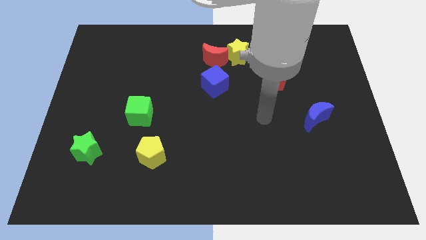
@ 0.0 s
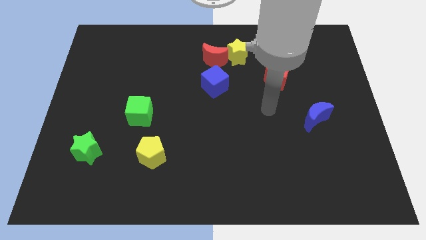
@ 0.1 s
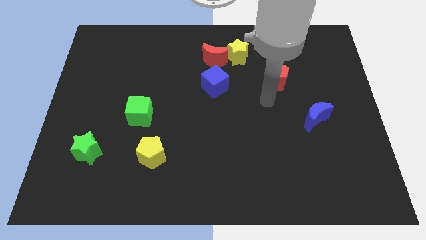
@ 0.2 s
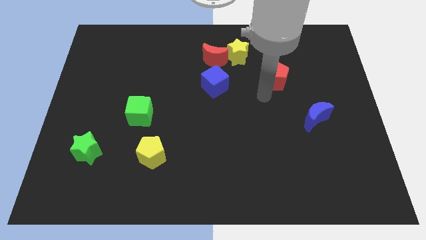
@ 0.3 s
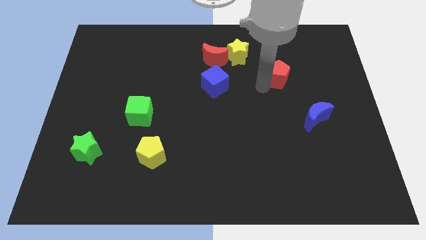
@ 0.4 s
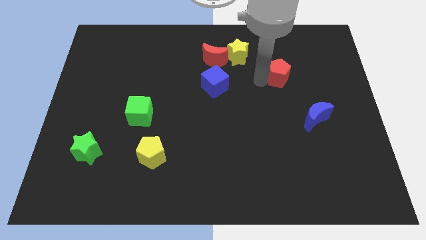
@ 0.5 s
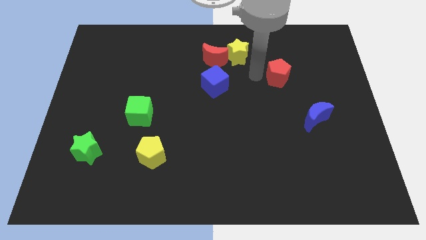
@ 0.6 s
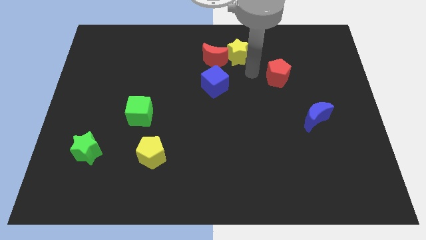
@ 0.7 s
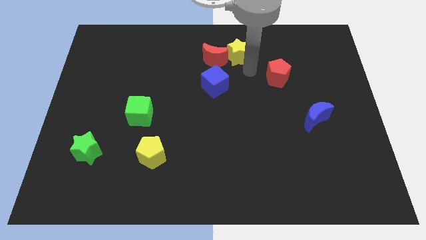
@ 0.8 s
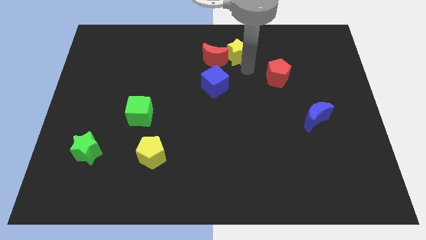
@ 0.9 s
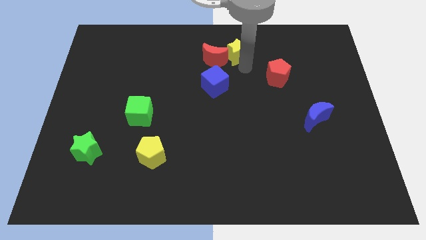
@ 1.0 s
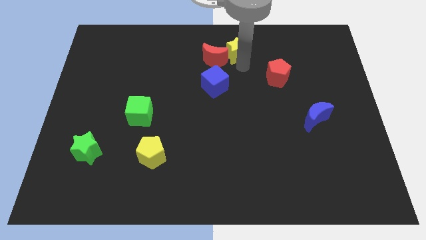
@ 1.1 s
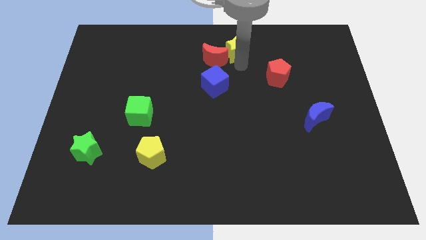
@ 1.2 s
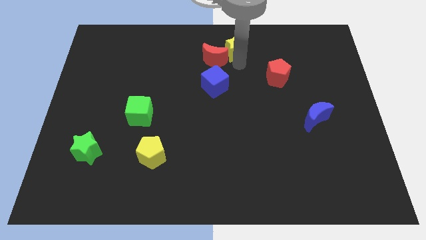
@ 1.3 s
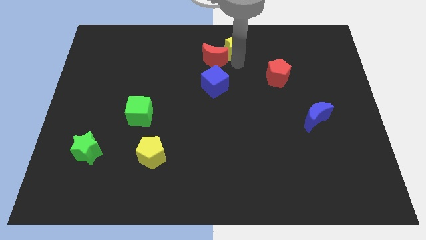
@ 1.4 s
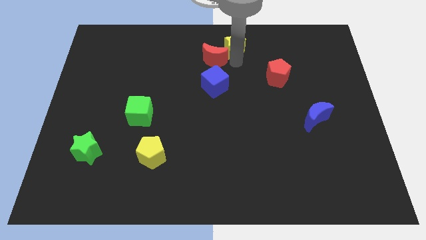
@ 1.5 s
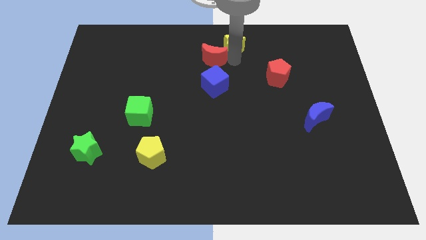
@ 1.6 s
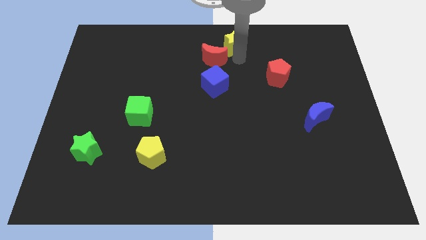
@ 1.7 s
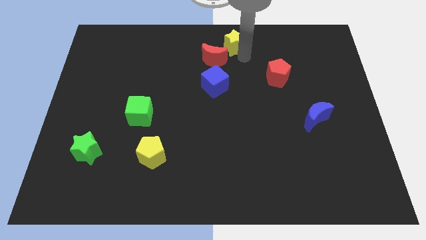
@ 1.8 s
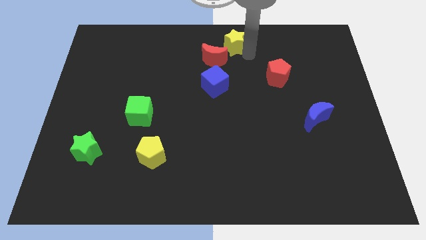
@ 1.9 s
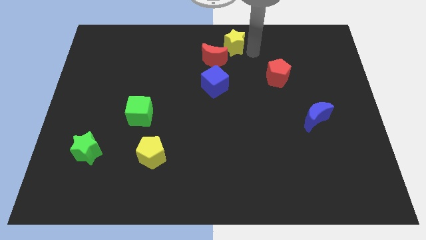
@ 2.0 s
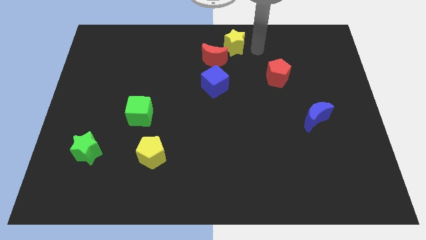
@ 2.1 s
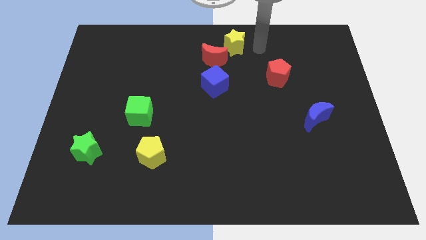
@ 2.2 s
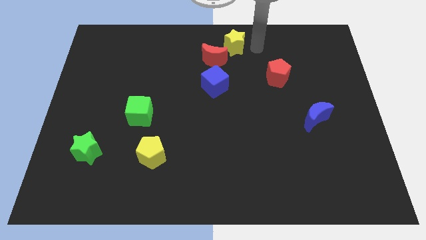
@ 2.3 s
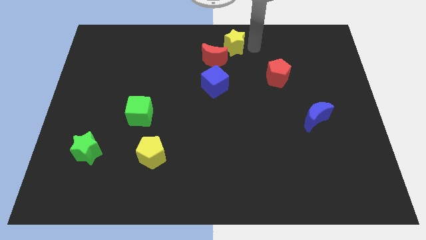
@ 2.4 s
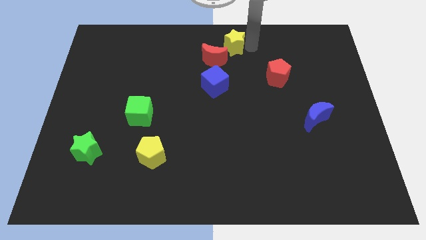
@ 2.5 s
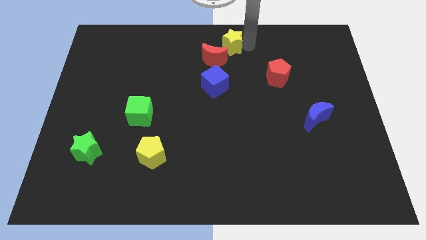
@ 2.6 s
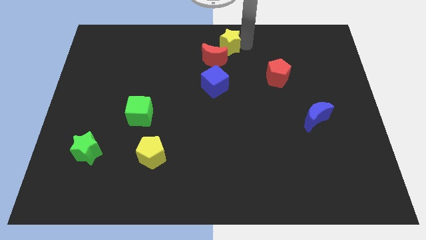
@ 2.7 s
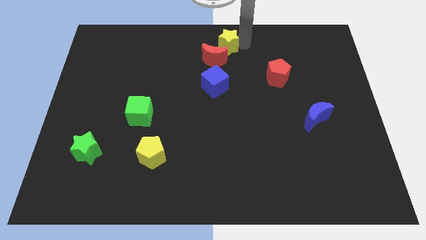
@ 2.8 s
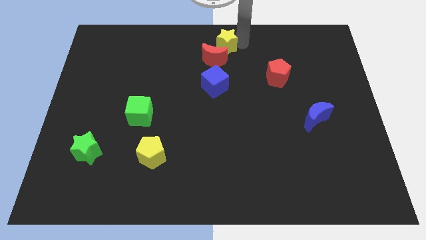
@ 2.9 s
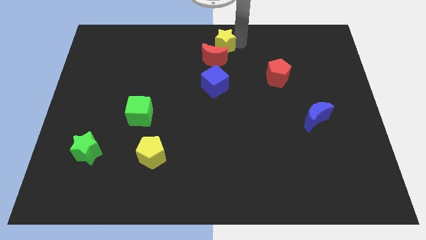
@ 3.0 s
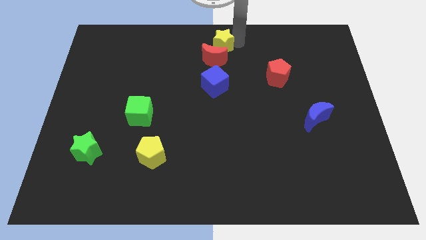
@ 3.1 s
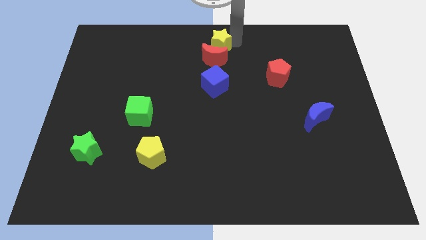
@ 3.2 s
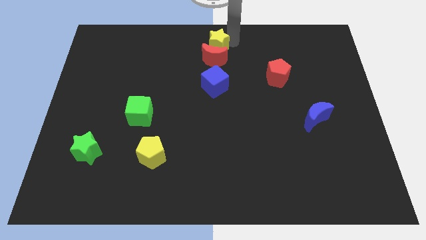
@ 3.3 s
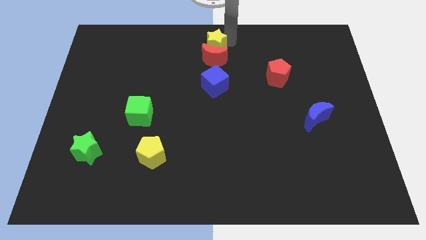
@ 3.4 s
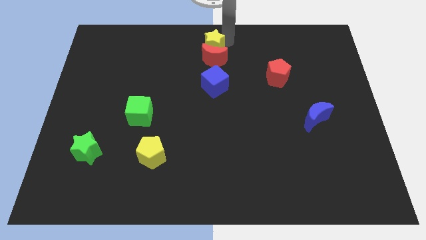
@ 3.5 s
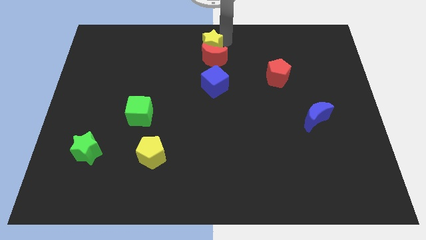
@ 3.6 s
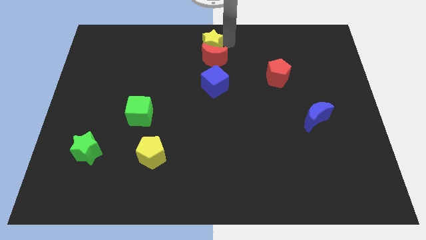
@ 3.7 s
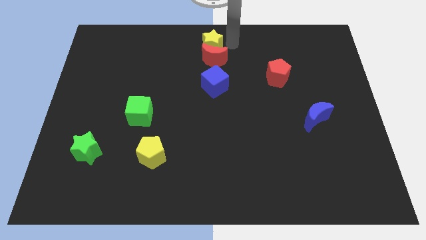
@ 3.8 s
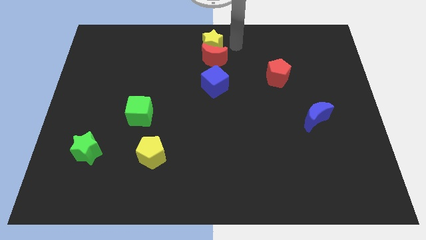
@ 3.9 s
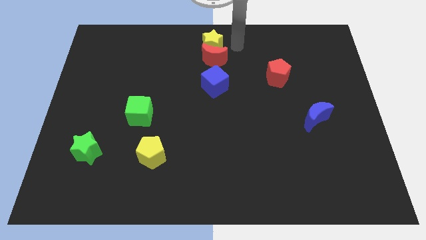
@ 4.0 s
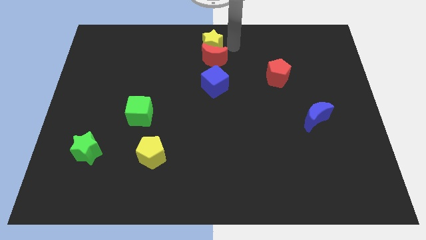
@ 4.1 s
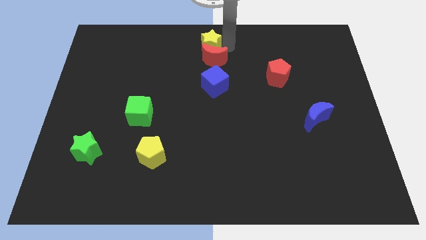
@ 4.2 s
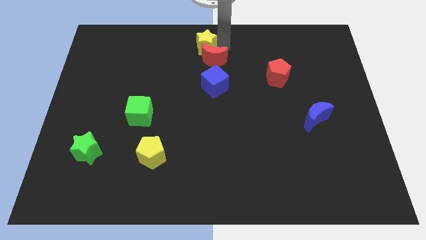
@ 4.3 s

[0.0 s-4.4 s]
slightly push the yellow star left

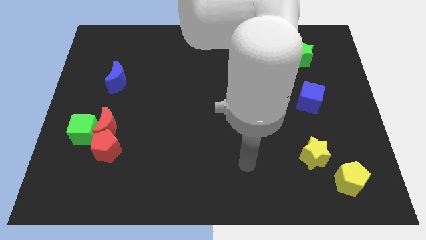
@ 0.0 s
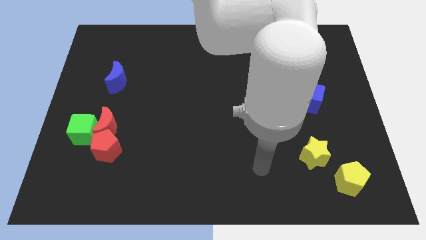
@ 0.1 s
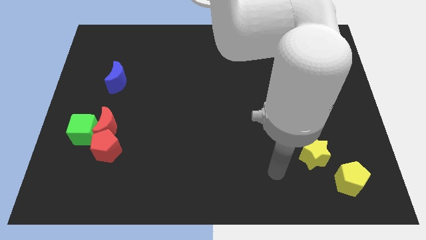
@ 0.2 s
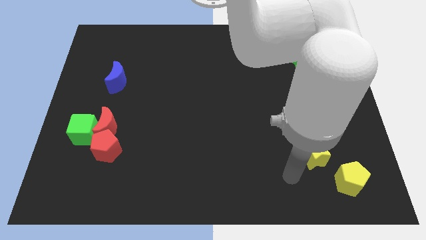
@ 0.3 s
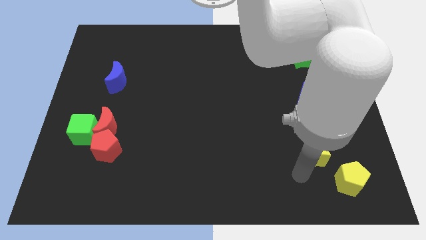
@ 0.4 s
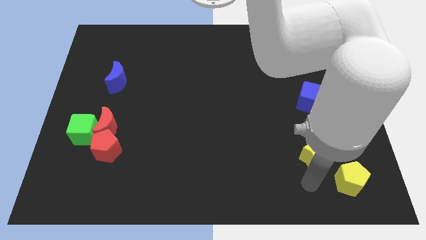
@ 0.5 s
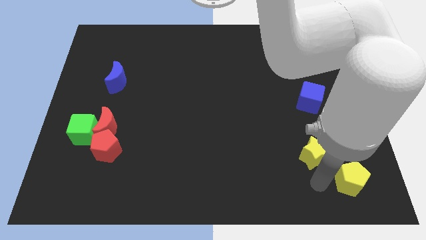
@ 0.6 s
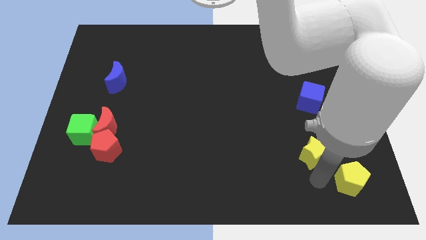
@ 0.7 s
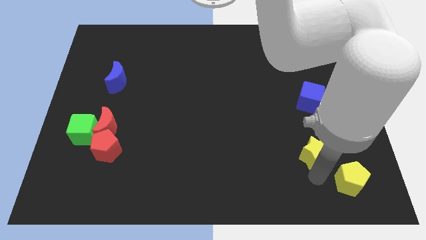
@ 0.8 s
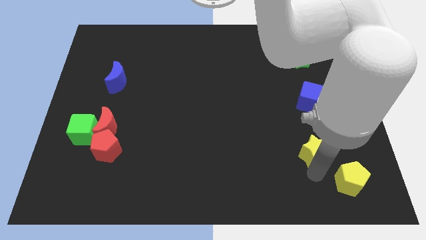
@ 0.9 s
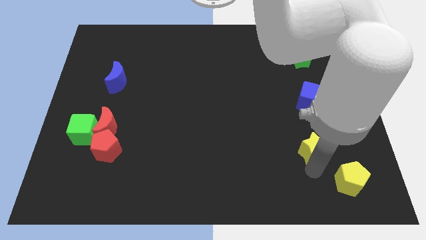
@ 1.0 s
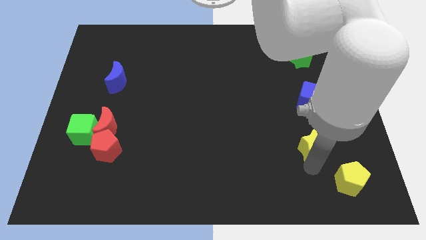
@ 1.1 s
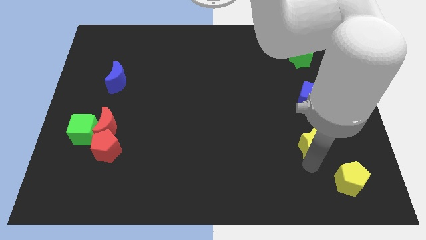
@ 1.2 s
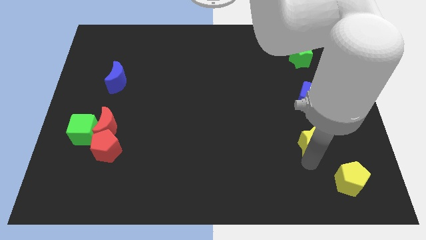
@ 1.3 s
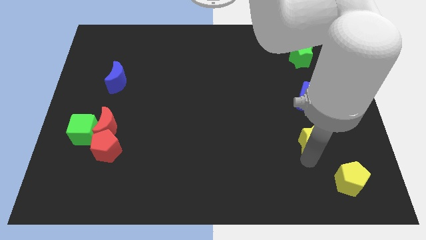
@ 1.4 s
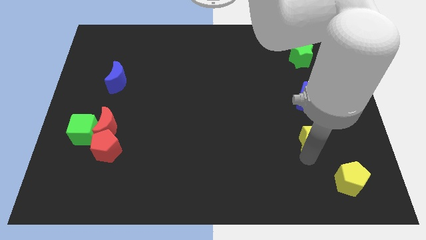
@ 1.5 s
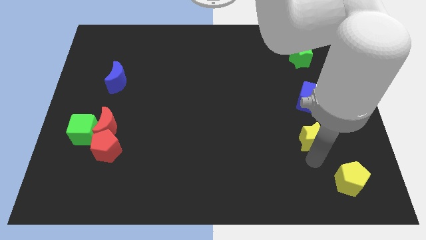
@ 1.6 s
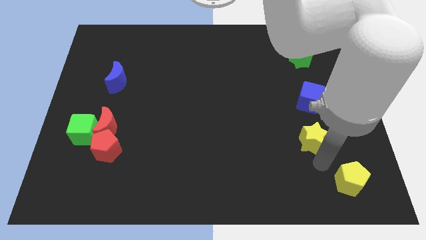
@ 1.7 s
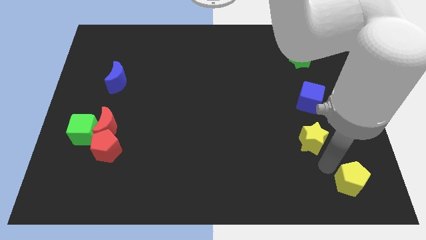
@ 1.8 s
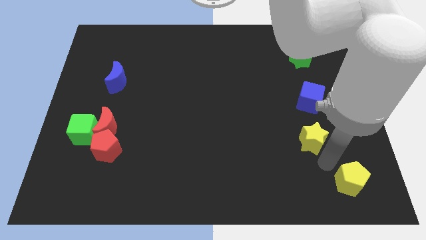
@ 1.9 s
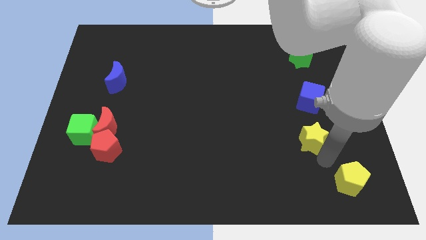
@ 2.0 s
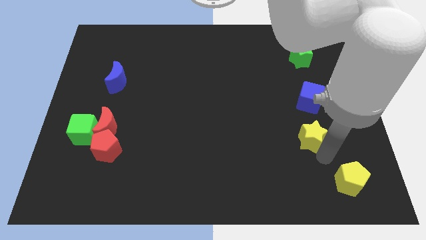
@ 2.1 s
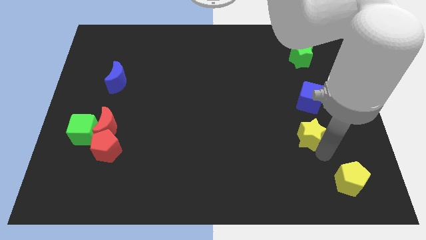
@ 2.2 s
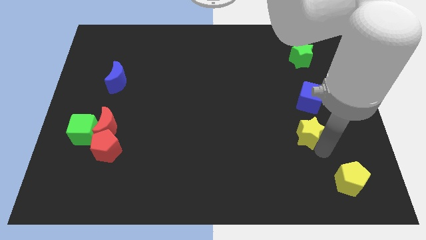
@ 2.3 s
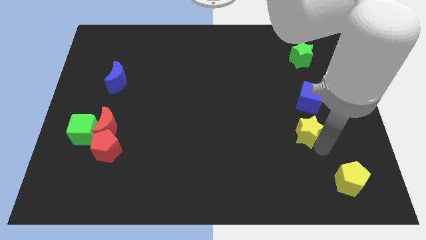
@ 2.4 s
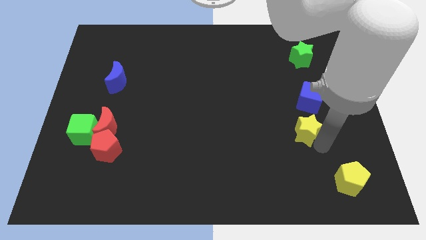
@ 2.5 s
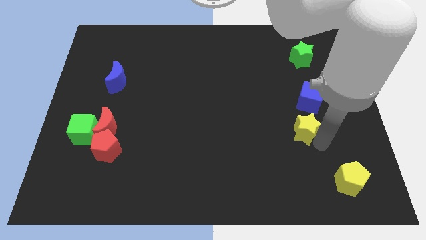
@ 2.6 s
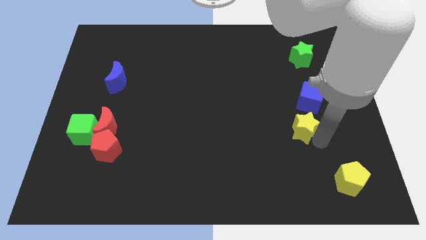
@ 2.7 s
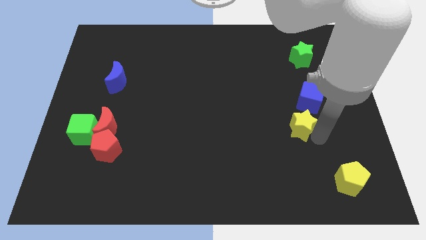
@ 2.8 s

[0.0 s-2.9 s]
move the yellow star up a little

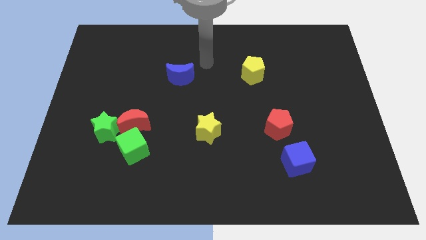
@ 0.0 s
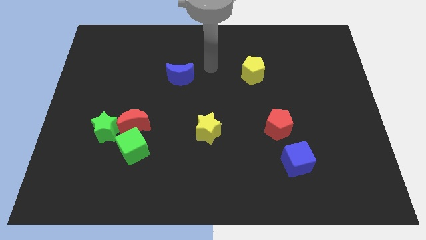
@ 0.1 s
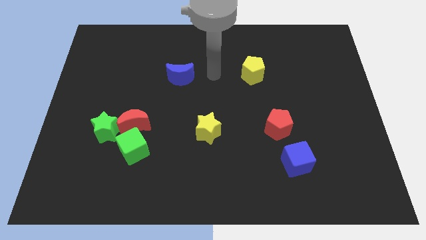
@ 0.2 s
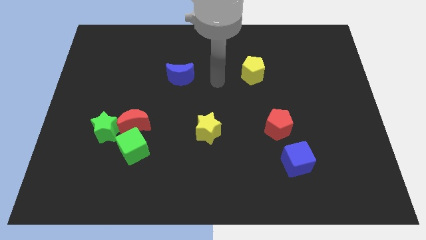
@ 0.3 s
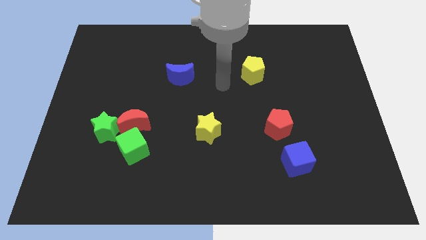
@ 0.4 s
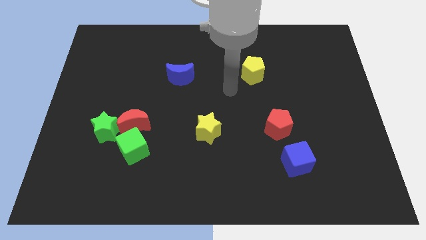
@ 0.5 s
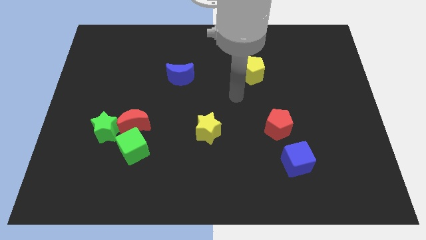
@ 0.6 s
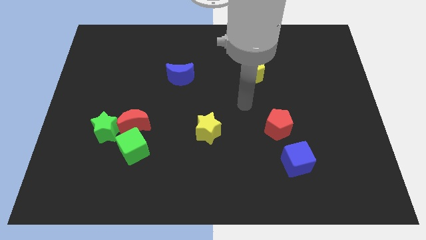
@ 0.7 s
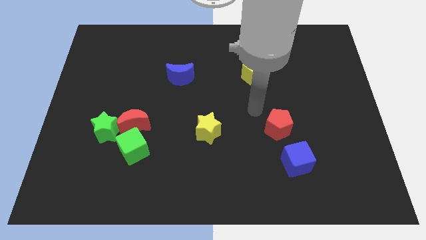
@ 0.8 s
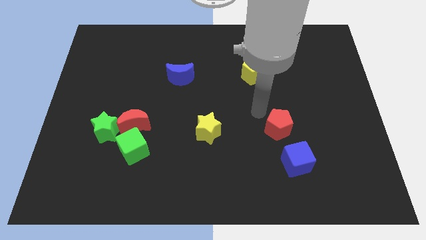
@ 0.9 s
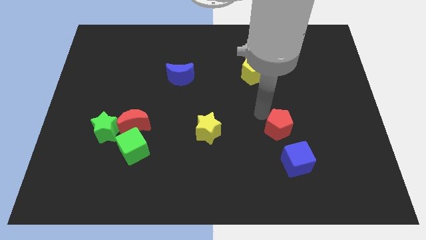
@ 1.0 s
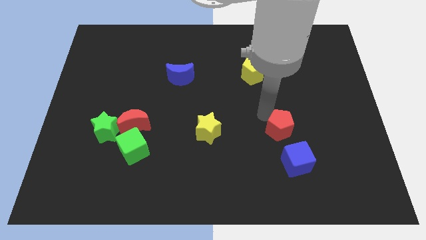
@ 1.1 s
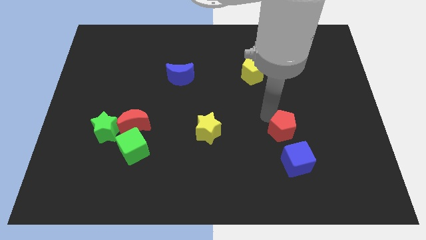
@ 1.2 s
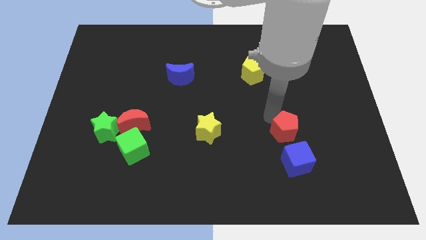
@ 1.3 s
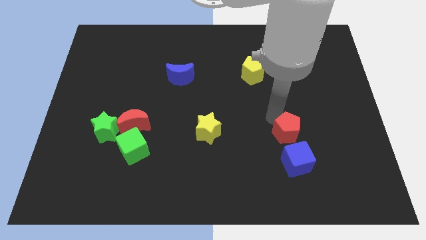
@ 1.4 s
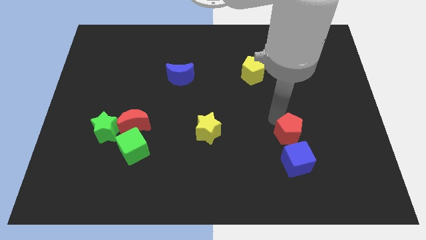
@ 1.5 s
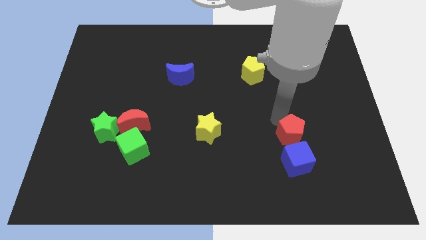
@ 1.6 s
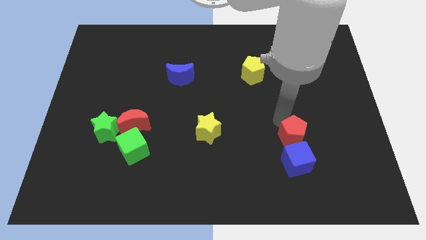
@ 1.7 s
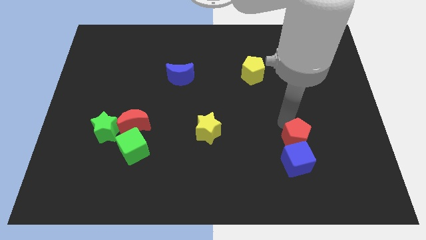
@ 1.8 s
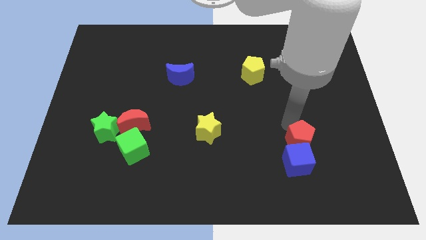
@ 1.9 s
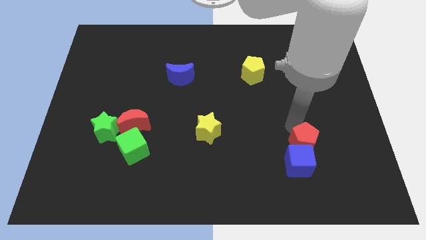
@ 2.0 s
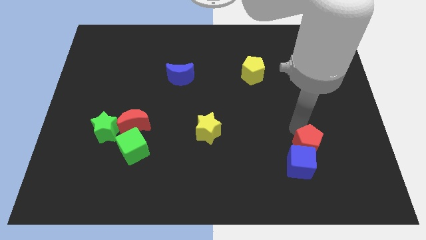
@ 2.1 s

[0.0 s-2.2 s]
push the red pentagon down and to the right somewhat
